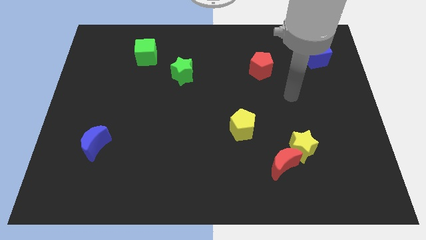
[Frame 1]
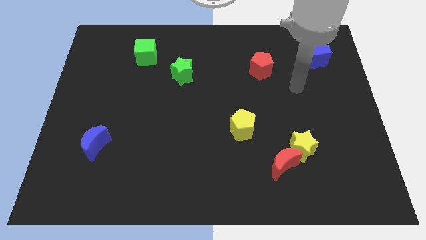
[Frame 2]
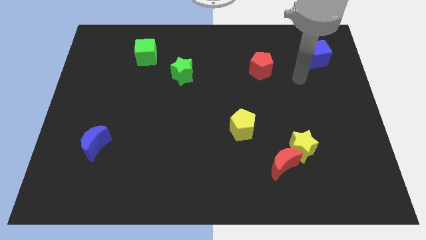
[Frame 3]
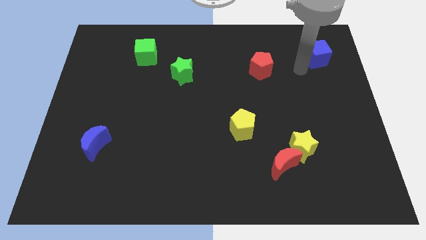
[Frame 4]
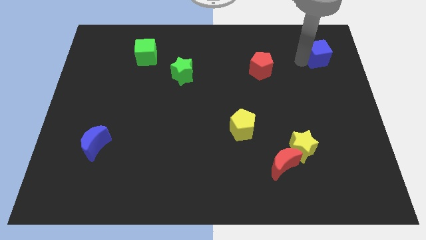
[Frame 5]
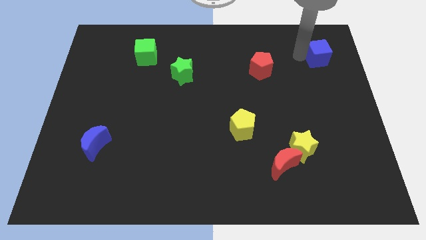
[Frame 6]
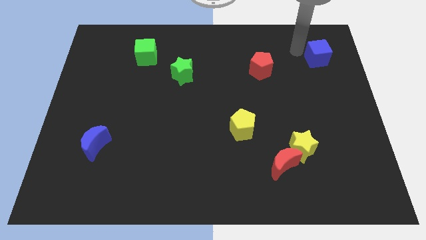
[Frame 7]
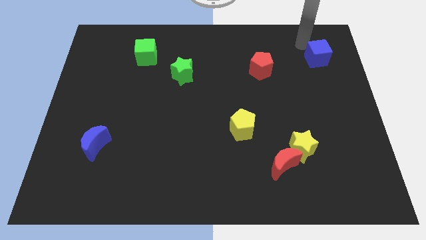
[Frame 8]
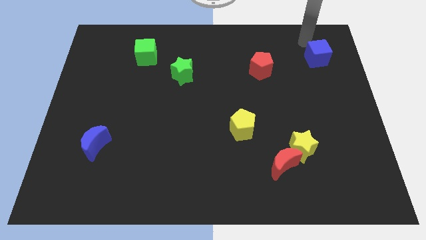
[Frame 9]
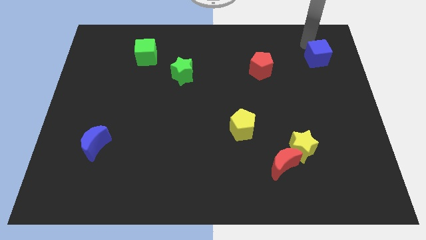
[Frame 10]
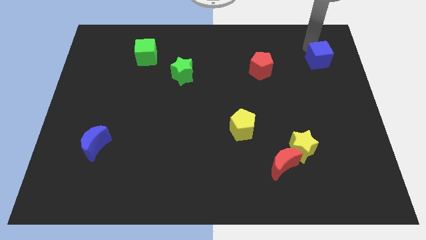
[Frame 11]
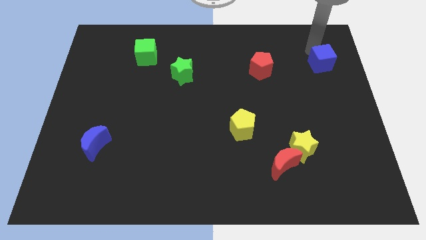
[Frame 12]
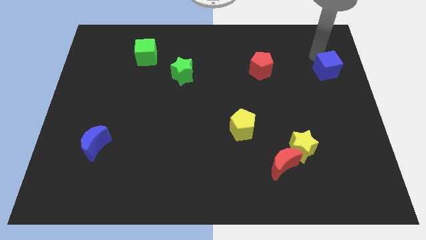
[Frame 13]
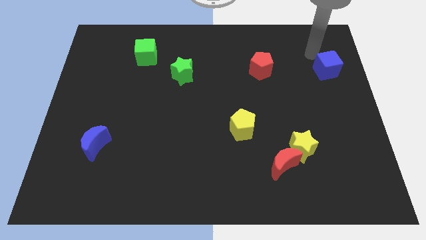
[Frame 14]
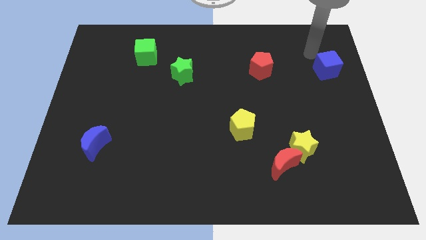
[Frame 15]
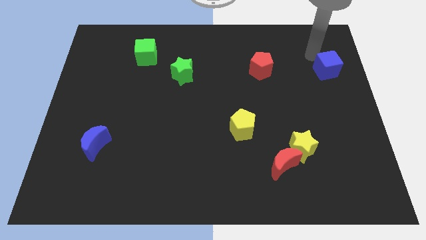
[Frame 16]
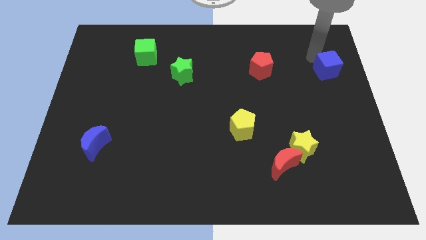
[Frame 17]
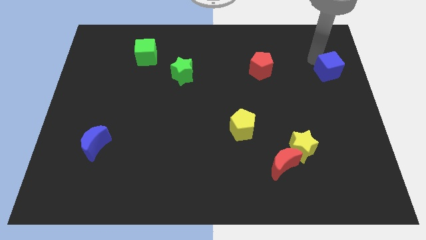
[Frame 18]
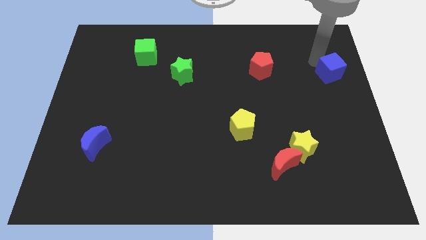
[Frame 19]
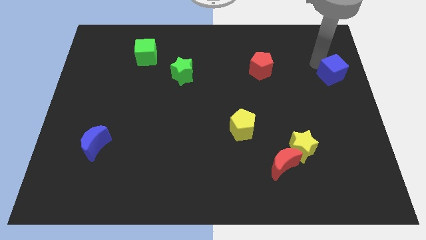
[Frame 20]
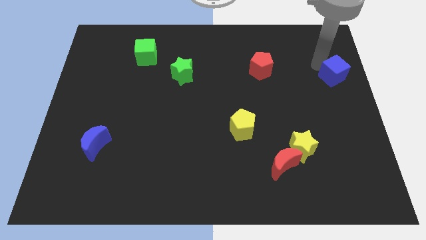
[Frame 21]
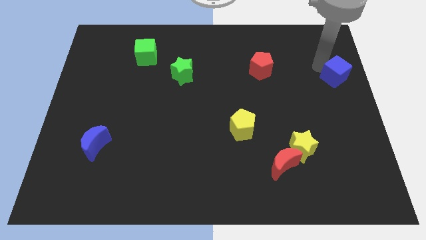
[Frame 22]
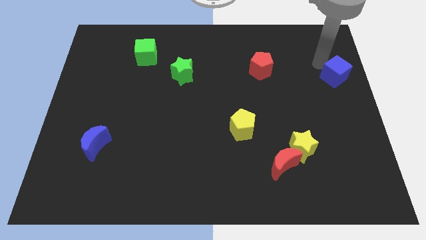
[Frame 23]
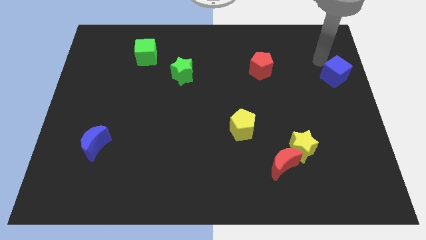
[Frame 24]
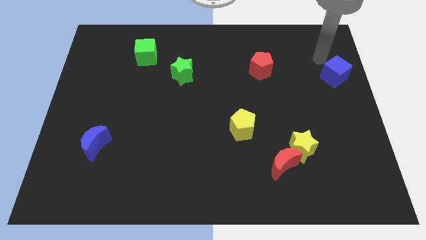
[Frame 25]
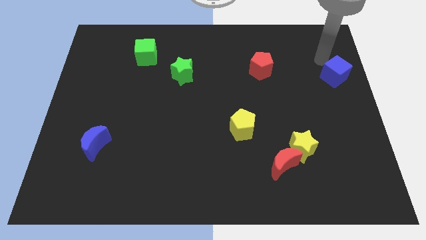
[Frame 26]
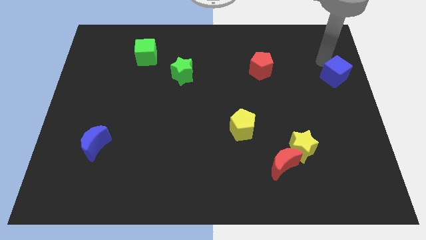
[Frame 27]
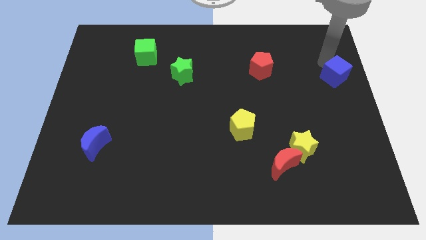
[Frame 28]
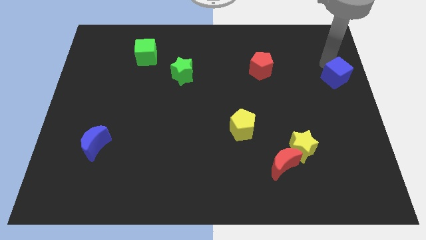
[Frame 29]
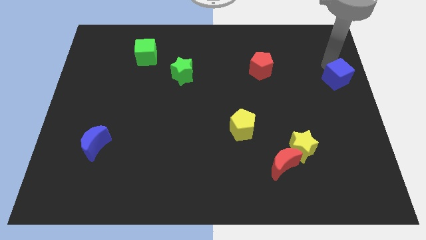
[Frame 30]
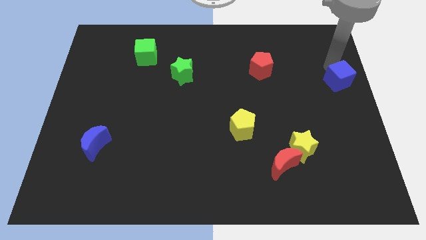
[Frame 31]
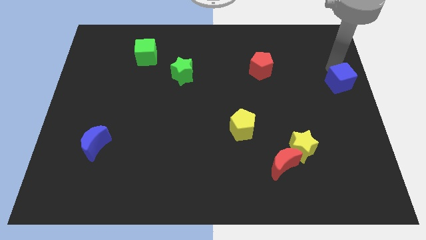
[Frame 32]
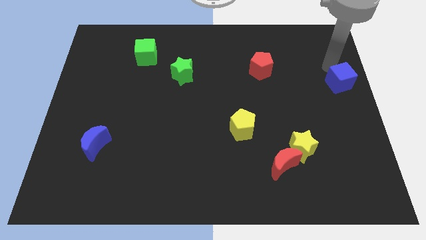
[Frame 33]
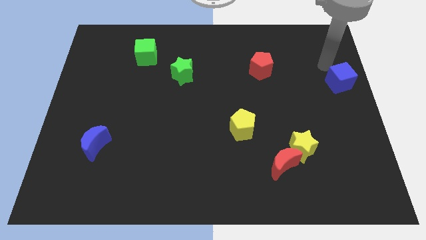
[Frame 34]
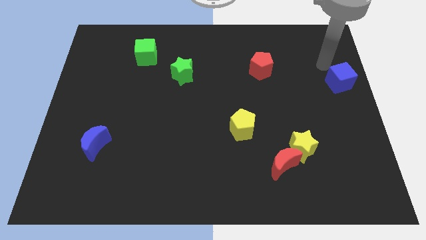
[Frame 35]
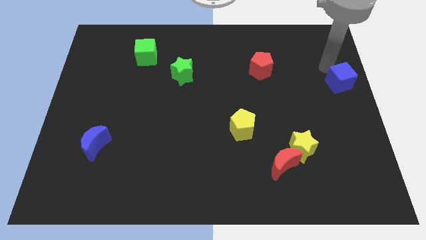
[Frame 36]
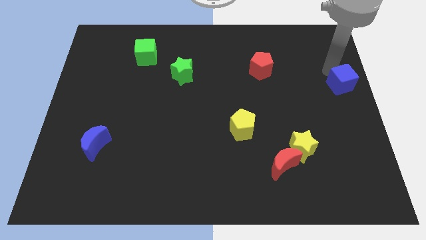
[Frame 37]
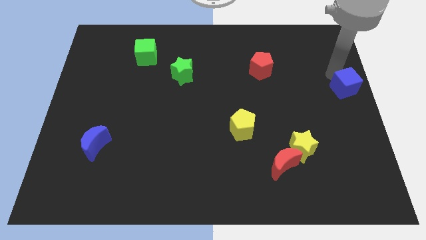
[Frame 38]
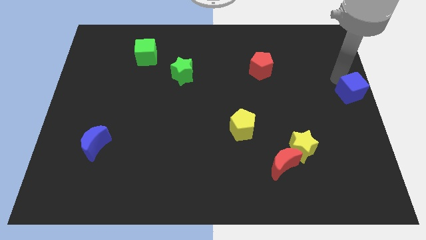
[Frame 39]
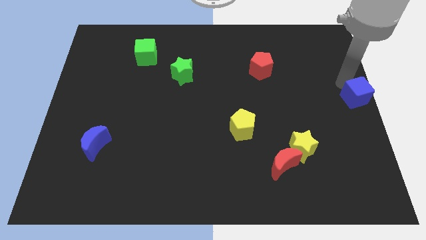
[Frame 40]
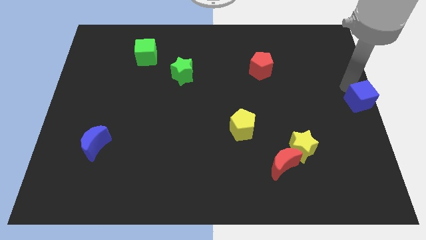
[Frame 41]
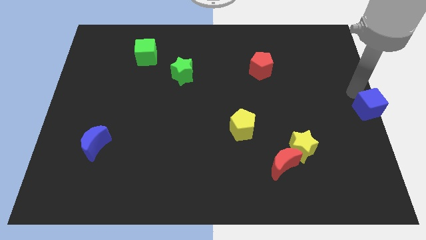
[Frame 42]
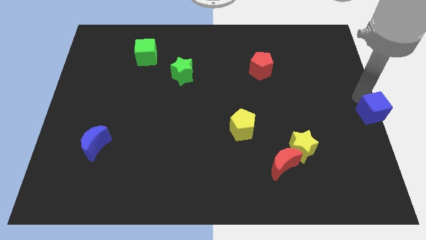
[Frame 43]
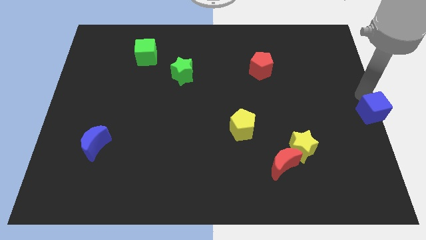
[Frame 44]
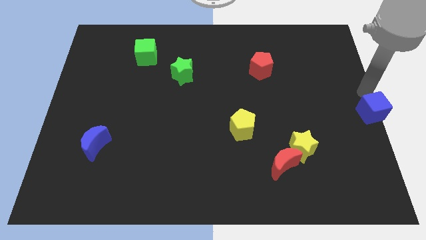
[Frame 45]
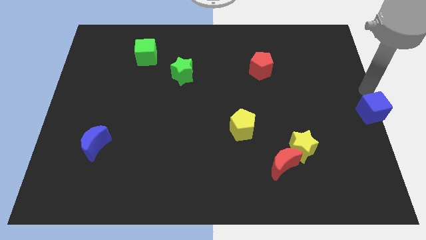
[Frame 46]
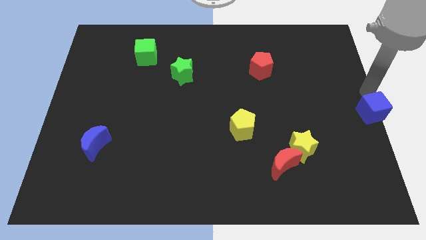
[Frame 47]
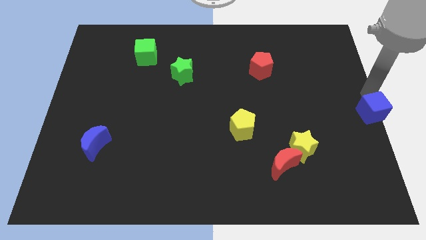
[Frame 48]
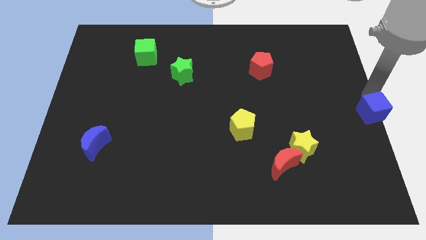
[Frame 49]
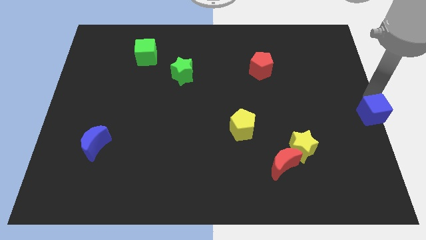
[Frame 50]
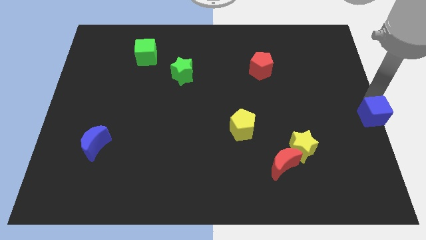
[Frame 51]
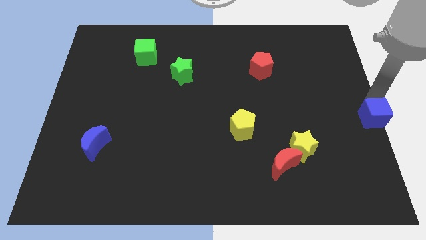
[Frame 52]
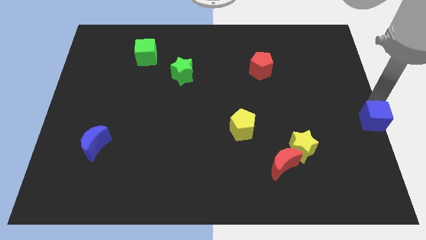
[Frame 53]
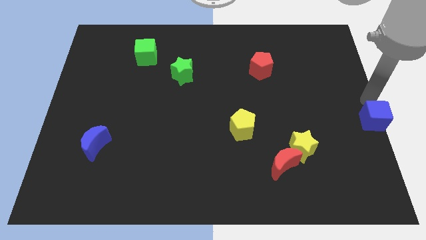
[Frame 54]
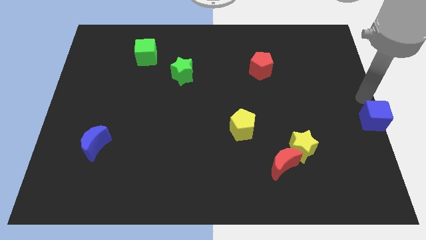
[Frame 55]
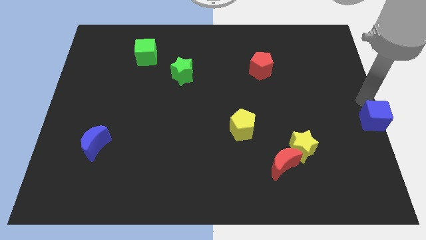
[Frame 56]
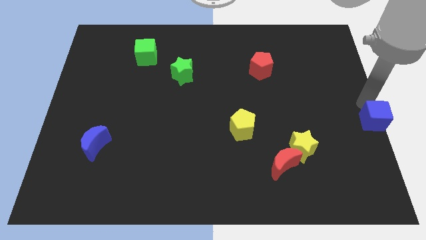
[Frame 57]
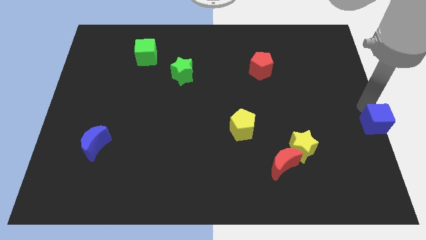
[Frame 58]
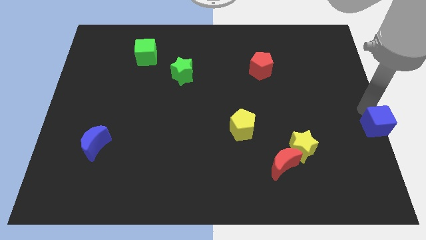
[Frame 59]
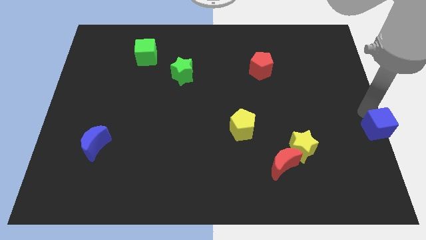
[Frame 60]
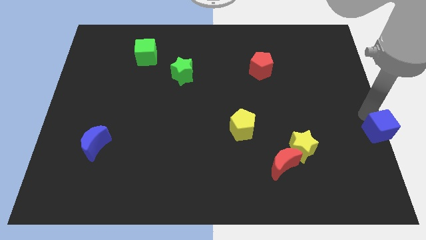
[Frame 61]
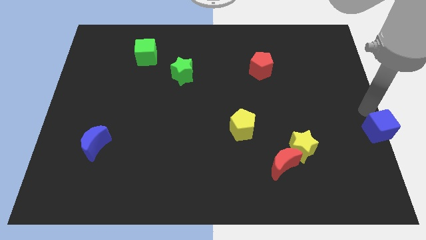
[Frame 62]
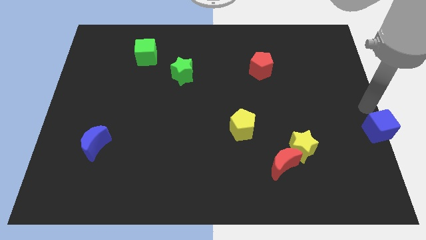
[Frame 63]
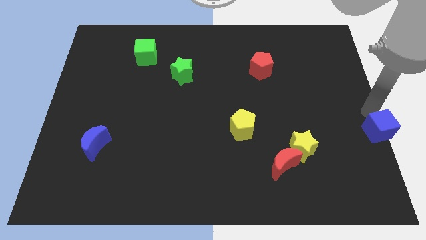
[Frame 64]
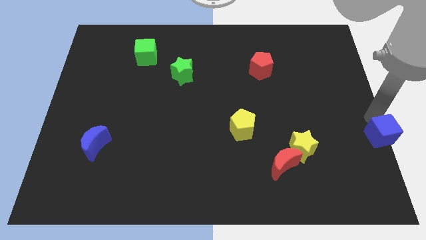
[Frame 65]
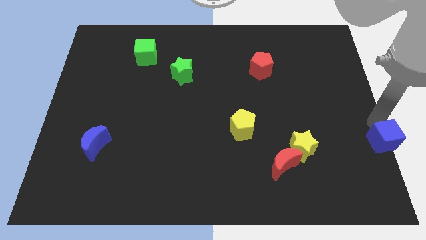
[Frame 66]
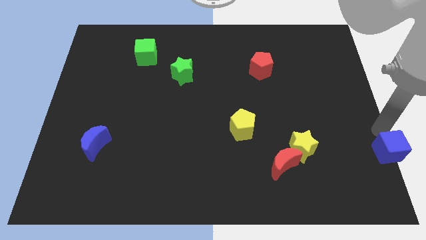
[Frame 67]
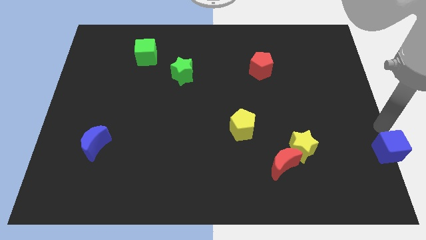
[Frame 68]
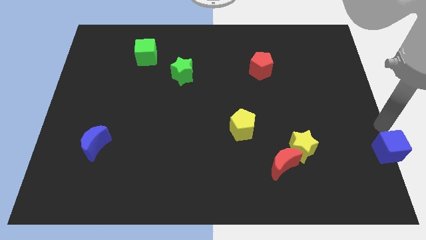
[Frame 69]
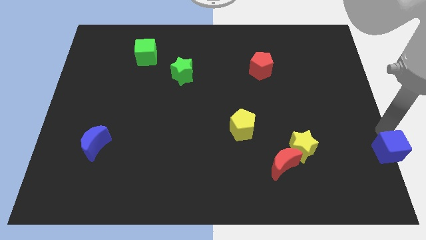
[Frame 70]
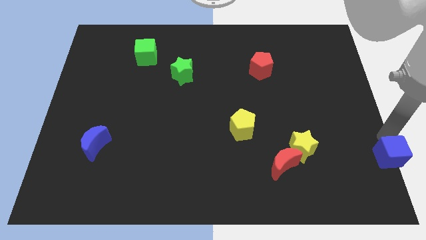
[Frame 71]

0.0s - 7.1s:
put the blue cube to the bottom right of the board
